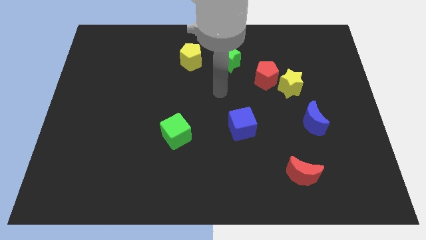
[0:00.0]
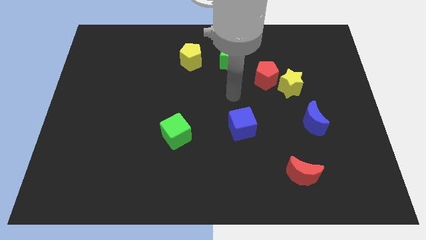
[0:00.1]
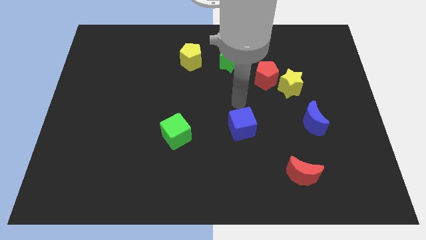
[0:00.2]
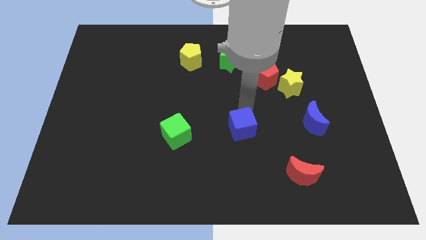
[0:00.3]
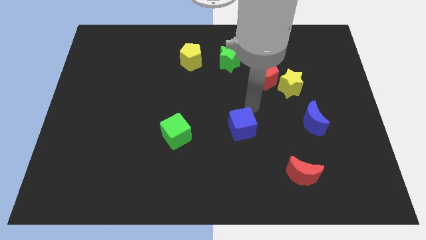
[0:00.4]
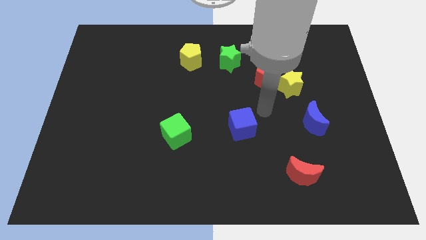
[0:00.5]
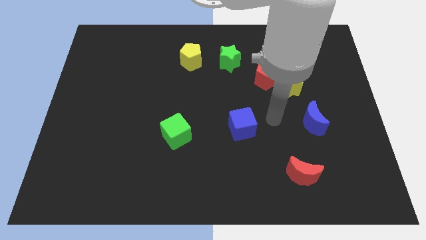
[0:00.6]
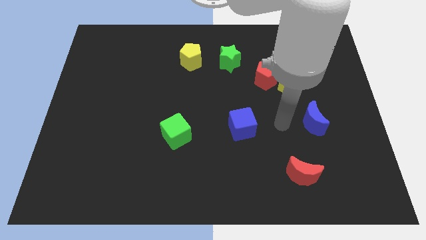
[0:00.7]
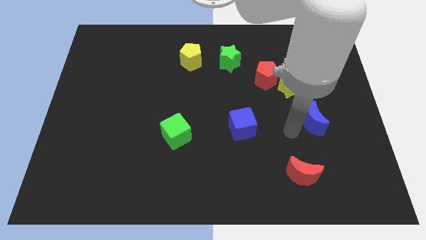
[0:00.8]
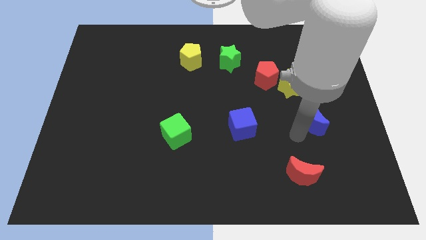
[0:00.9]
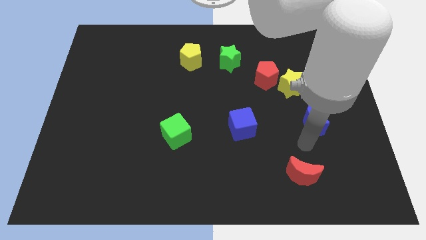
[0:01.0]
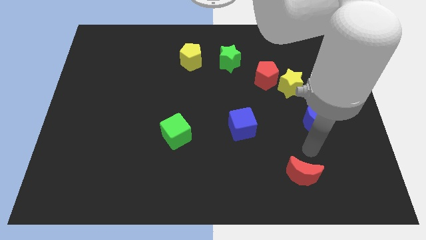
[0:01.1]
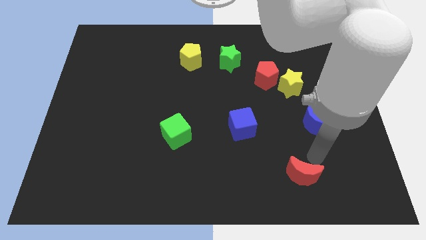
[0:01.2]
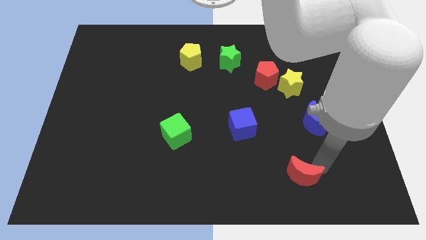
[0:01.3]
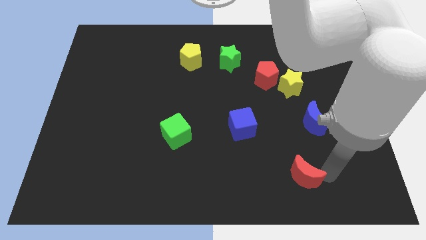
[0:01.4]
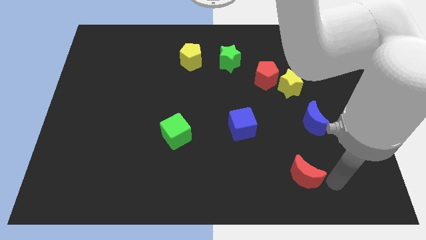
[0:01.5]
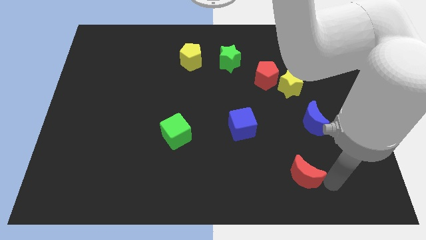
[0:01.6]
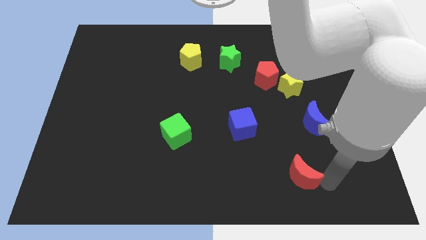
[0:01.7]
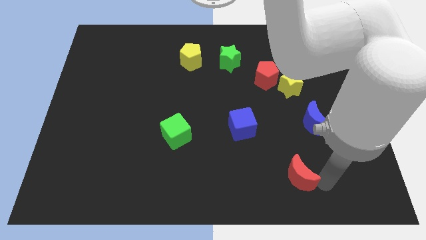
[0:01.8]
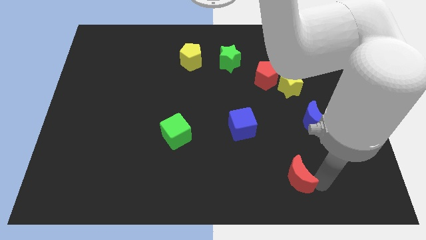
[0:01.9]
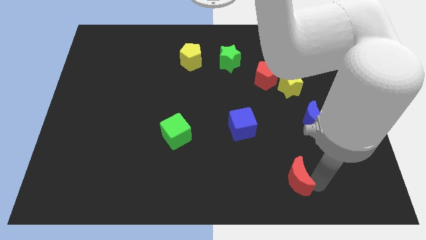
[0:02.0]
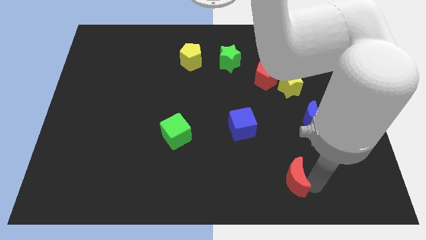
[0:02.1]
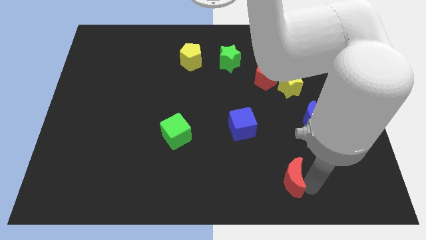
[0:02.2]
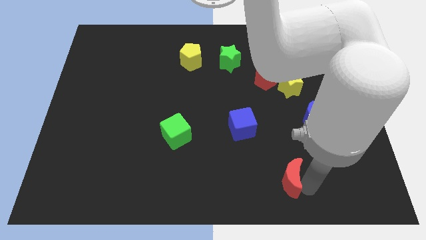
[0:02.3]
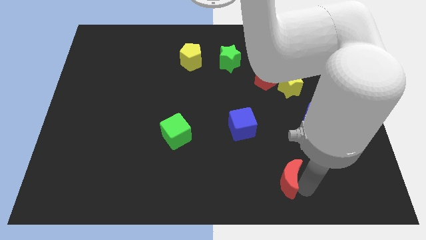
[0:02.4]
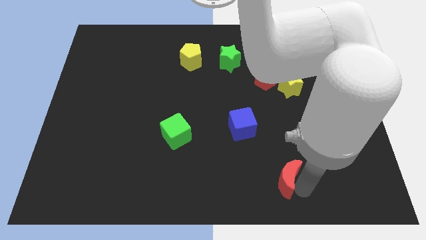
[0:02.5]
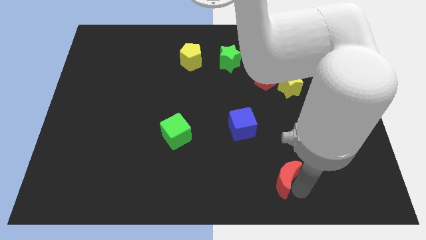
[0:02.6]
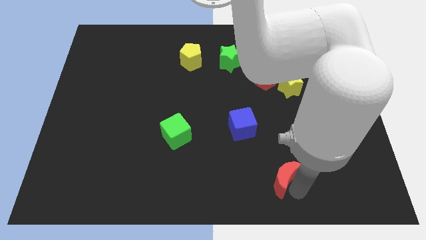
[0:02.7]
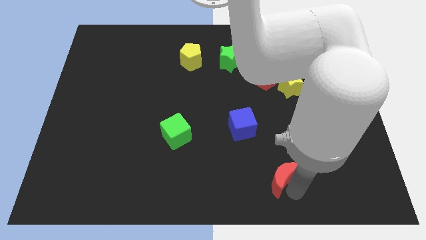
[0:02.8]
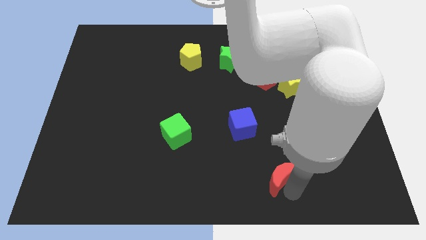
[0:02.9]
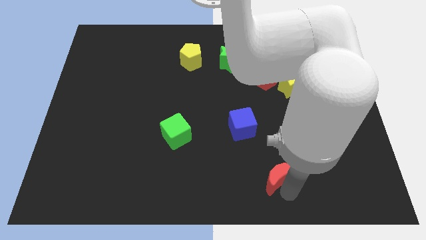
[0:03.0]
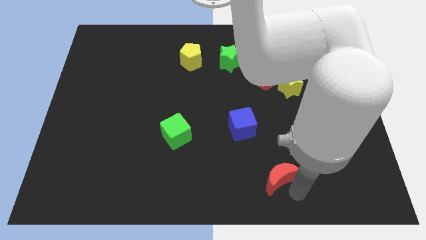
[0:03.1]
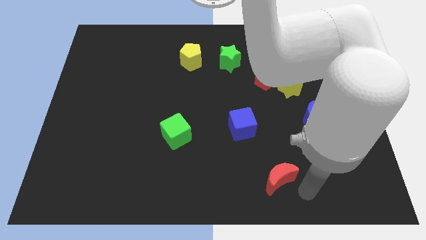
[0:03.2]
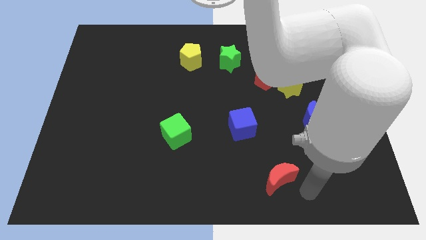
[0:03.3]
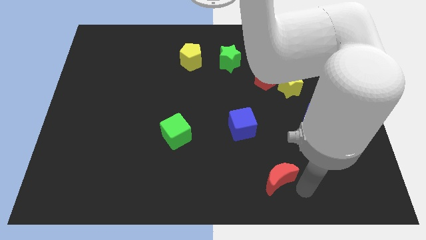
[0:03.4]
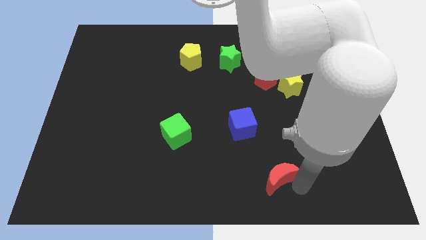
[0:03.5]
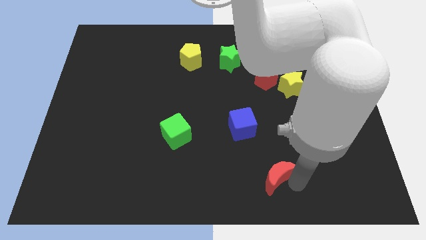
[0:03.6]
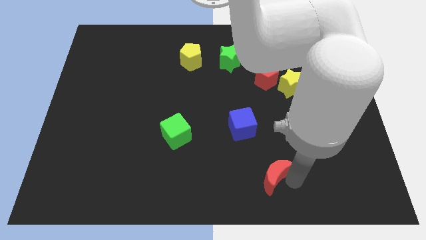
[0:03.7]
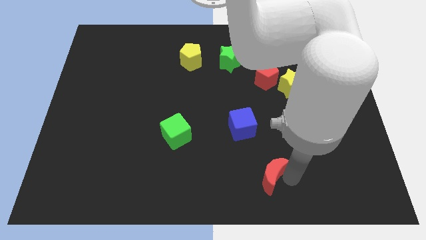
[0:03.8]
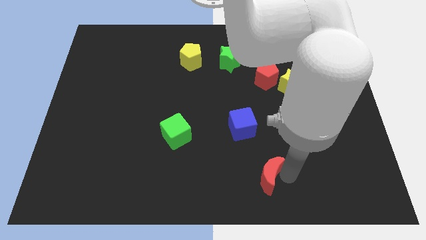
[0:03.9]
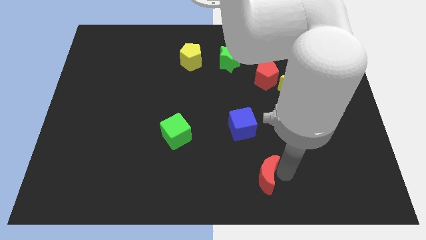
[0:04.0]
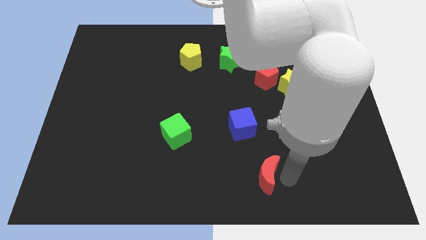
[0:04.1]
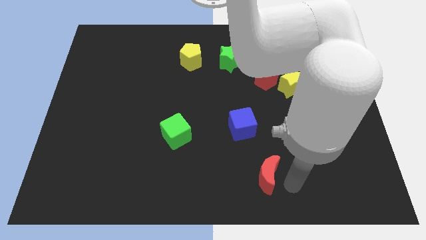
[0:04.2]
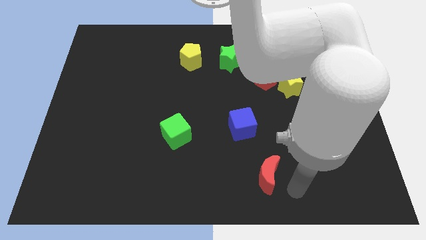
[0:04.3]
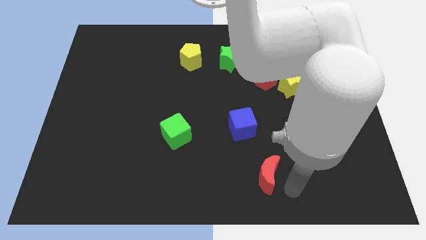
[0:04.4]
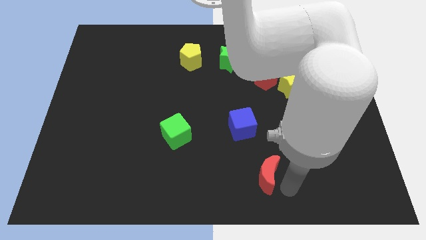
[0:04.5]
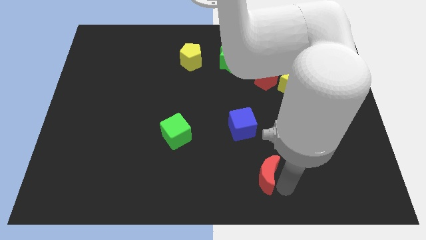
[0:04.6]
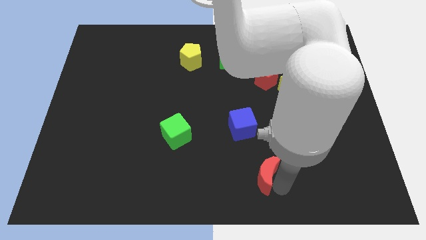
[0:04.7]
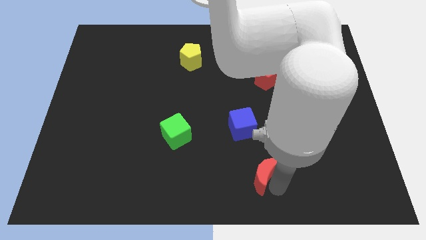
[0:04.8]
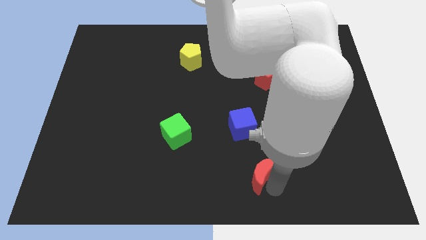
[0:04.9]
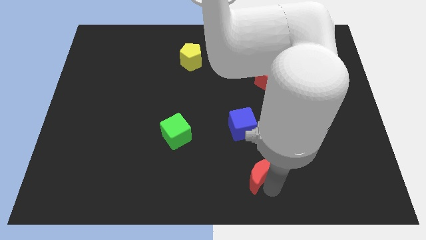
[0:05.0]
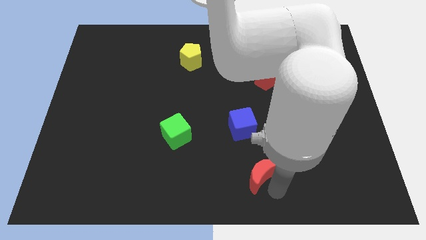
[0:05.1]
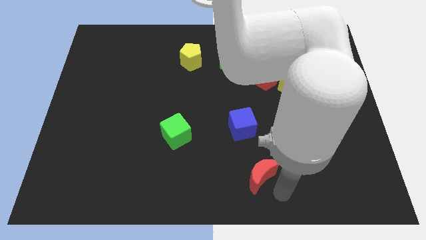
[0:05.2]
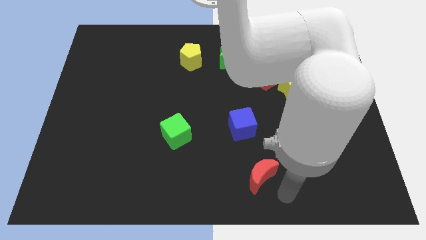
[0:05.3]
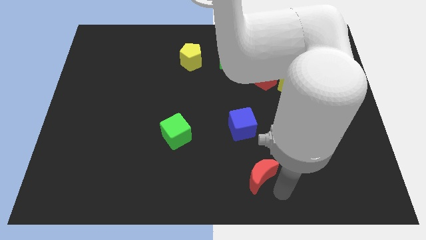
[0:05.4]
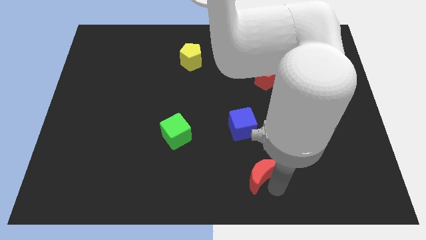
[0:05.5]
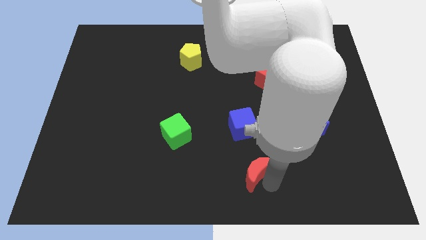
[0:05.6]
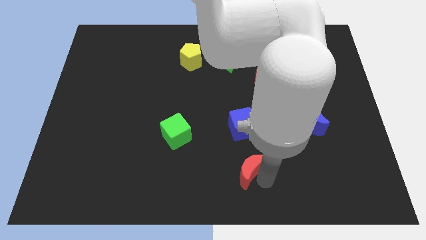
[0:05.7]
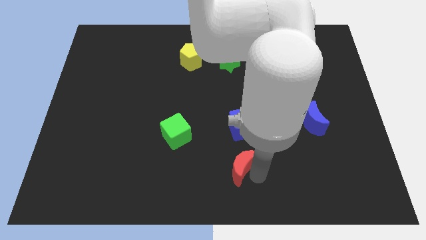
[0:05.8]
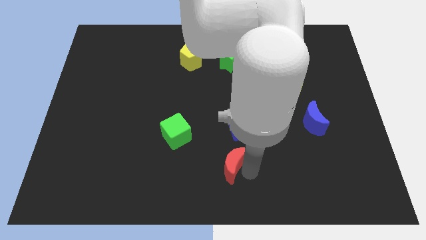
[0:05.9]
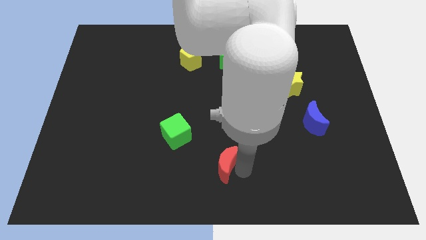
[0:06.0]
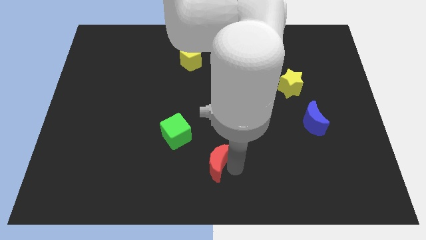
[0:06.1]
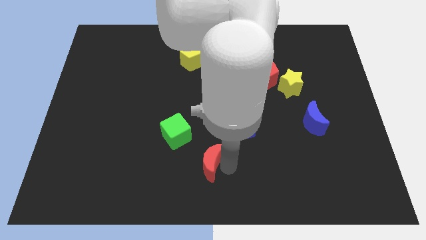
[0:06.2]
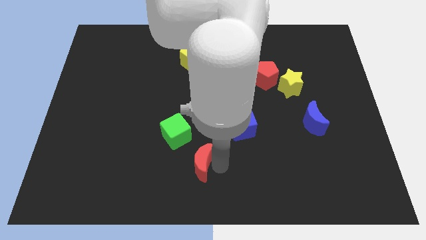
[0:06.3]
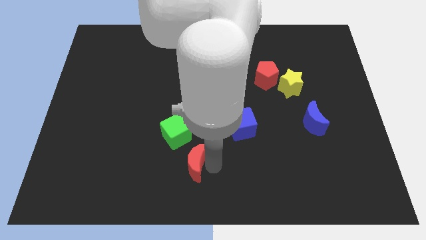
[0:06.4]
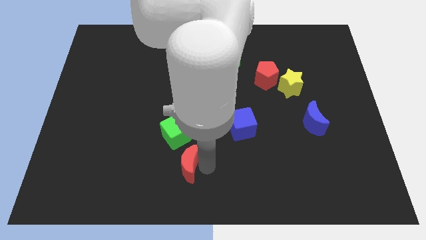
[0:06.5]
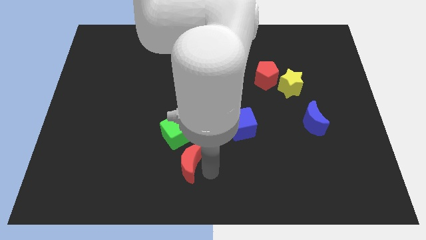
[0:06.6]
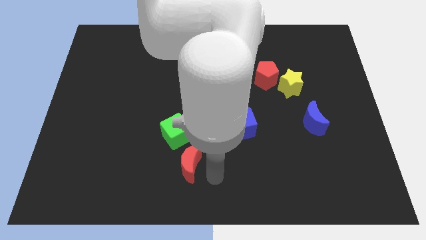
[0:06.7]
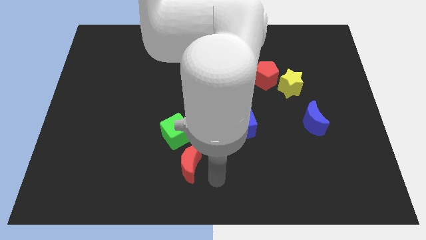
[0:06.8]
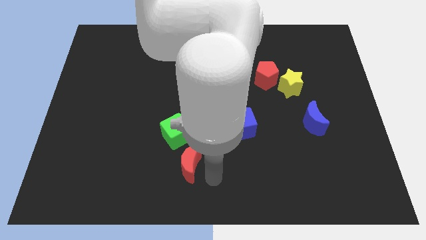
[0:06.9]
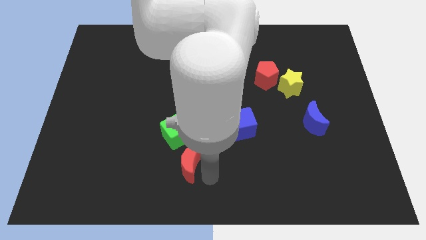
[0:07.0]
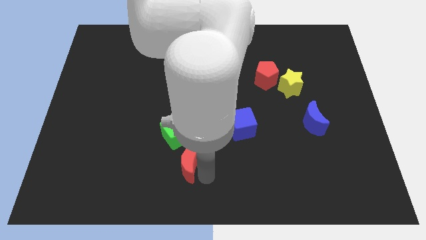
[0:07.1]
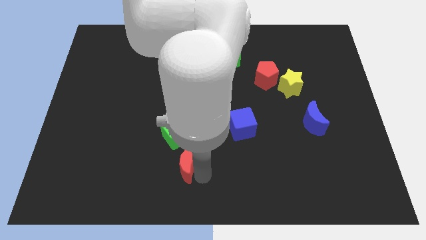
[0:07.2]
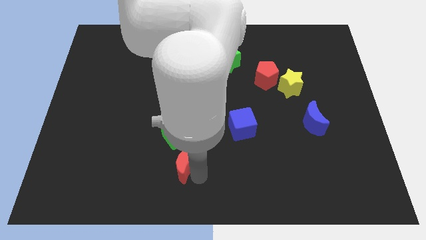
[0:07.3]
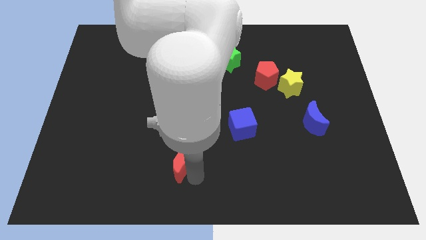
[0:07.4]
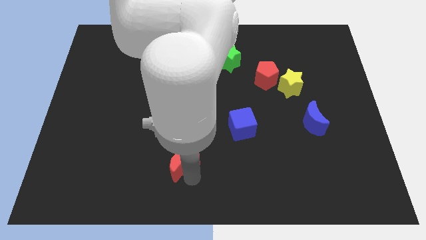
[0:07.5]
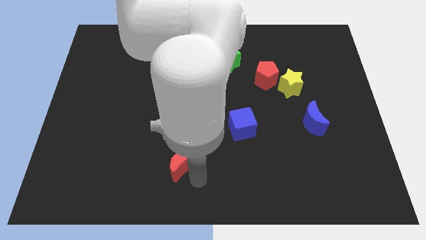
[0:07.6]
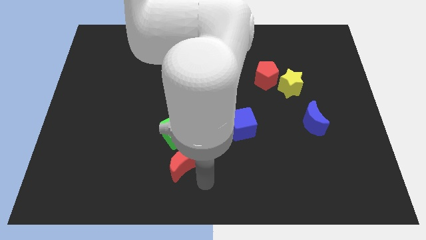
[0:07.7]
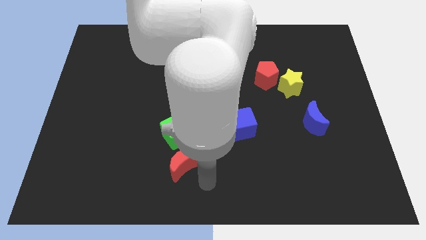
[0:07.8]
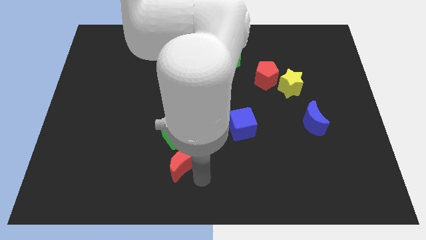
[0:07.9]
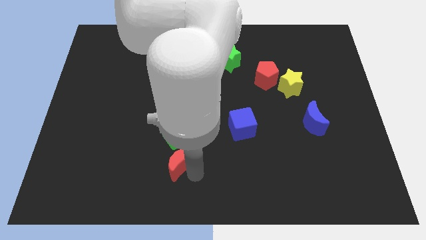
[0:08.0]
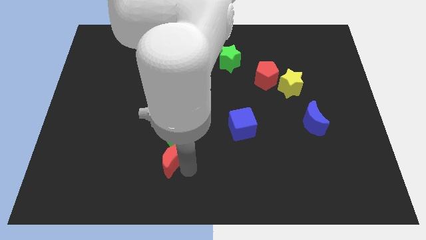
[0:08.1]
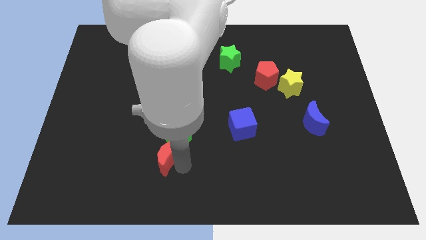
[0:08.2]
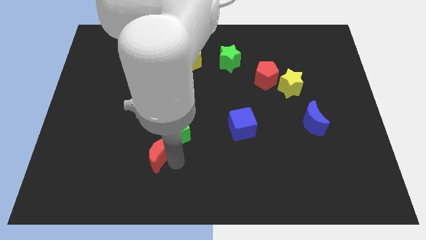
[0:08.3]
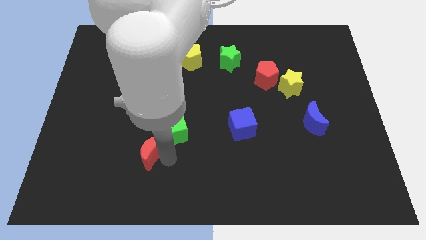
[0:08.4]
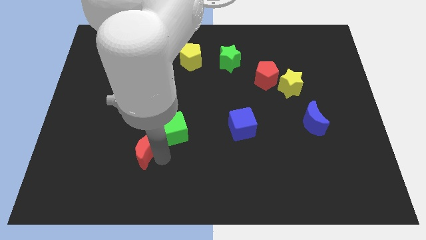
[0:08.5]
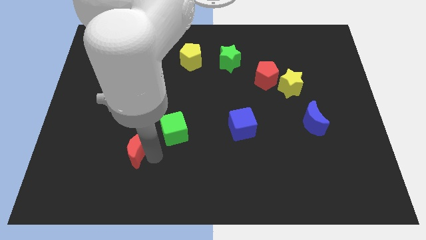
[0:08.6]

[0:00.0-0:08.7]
move the red moon to the left of the green cube
